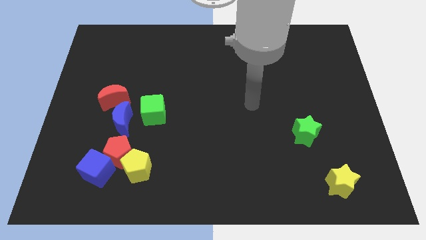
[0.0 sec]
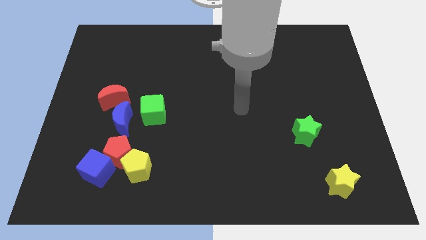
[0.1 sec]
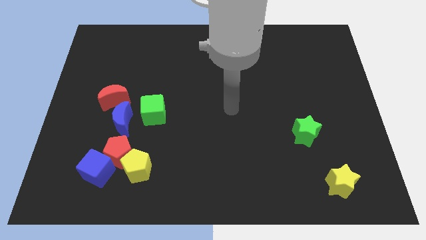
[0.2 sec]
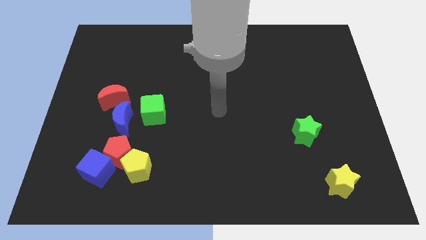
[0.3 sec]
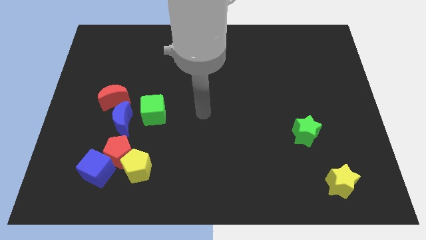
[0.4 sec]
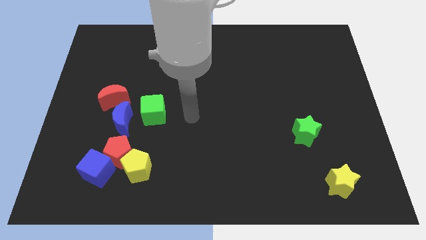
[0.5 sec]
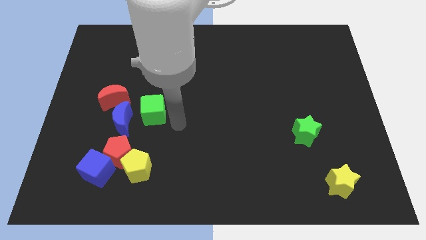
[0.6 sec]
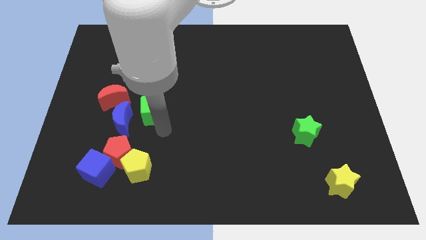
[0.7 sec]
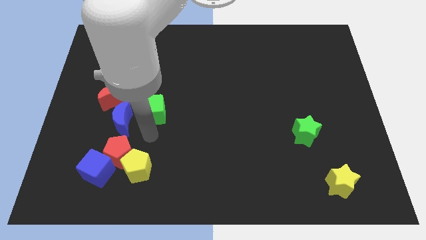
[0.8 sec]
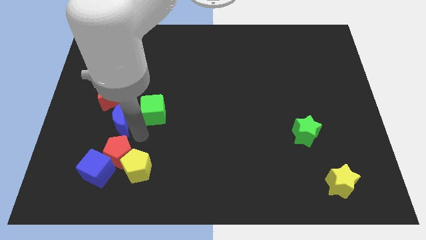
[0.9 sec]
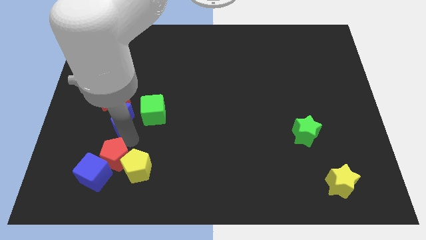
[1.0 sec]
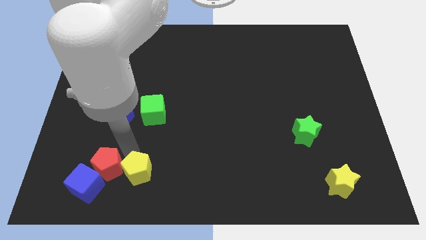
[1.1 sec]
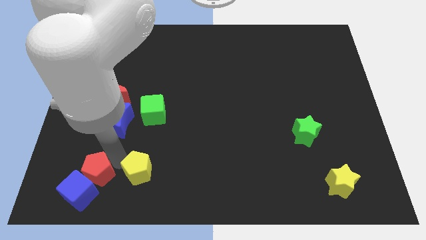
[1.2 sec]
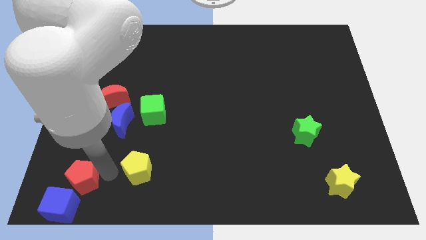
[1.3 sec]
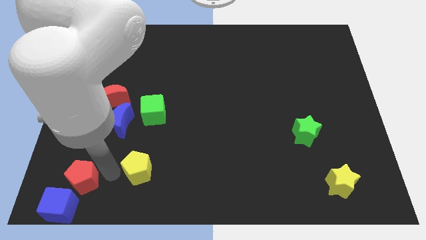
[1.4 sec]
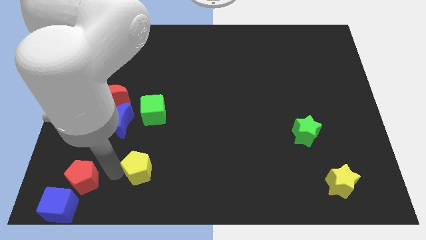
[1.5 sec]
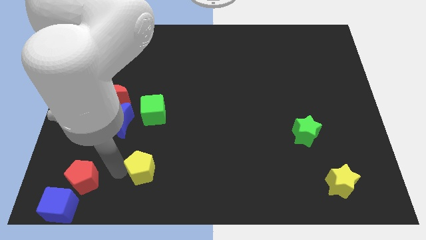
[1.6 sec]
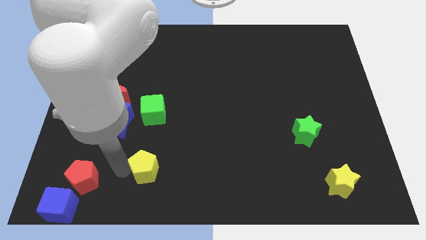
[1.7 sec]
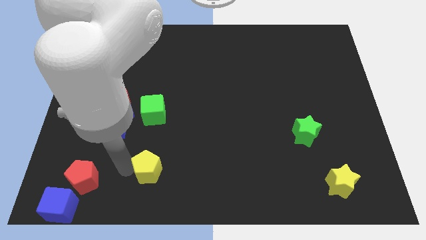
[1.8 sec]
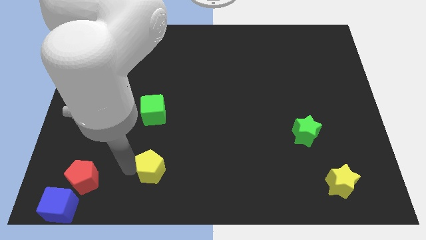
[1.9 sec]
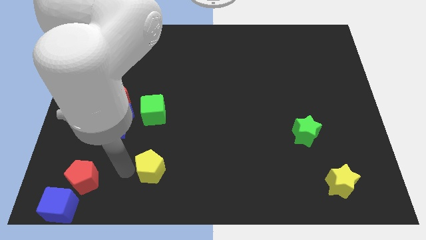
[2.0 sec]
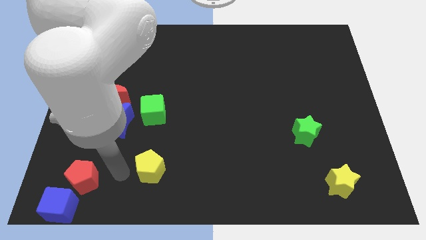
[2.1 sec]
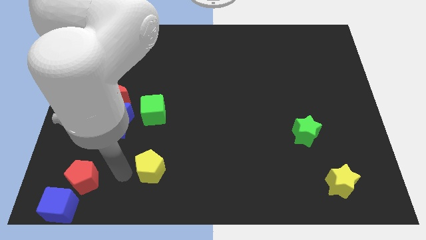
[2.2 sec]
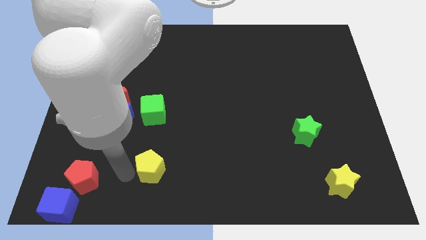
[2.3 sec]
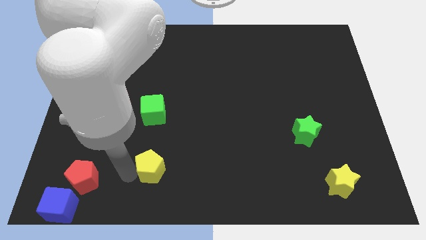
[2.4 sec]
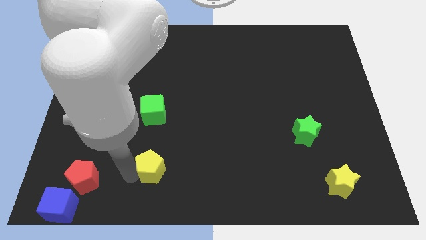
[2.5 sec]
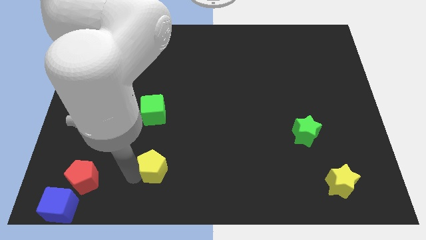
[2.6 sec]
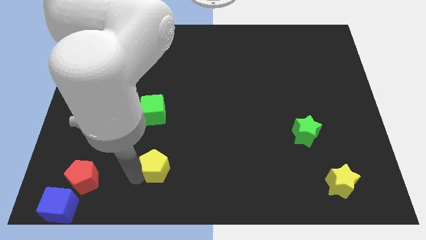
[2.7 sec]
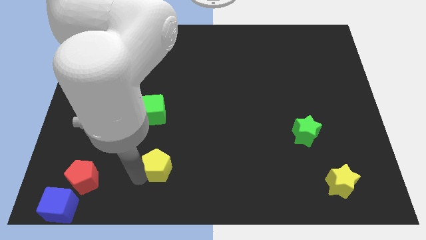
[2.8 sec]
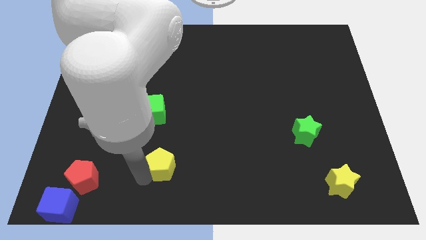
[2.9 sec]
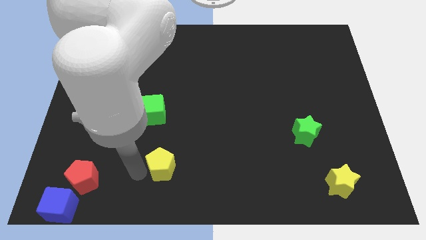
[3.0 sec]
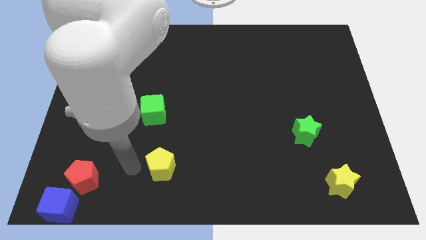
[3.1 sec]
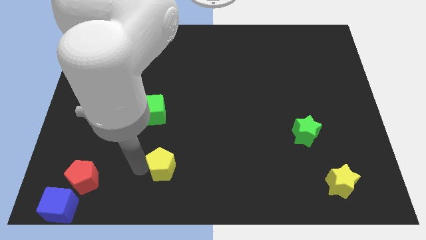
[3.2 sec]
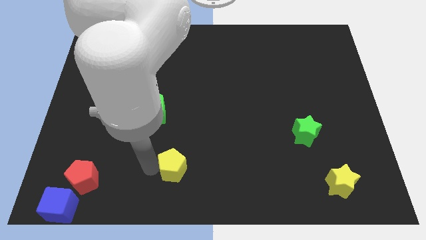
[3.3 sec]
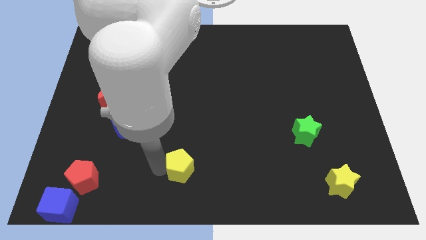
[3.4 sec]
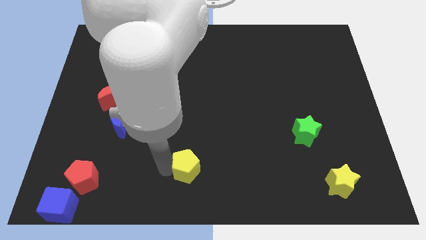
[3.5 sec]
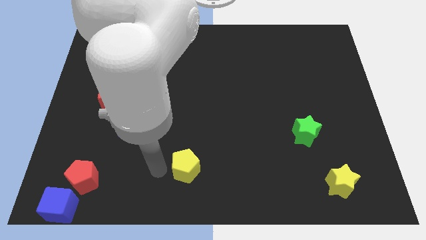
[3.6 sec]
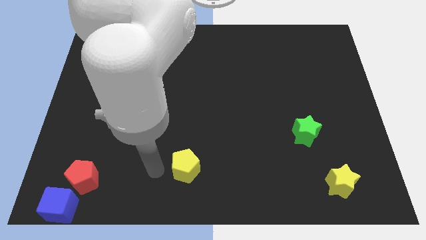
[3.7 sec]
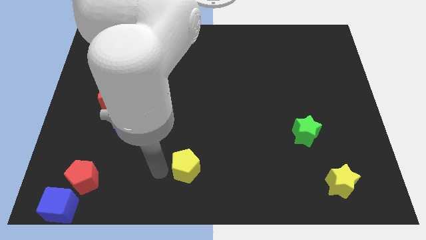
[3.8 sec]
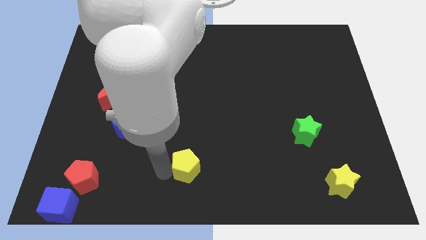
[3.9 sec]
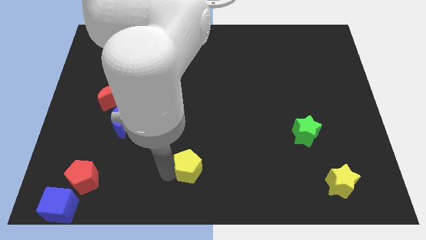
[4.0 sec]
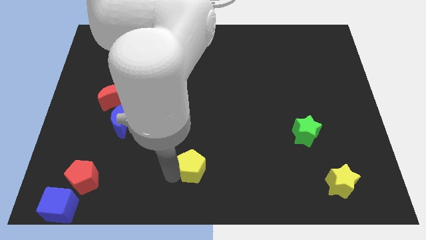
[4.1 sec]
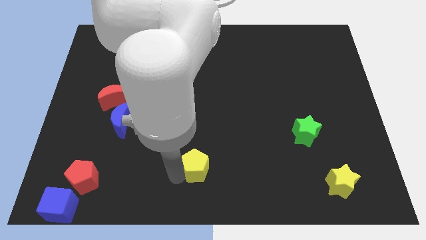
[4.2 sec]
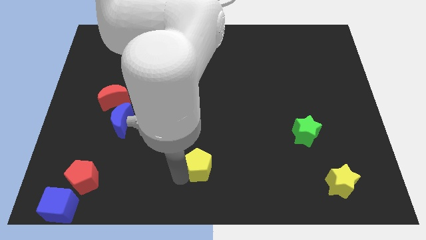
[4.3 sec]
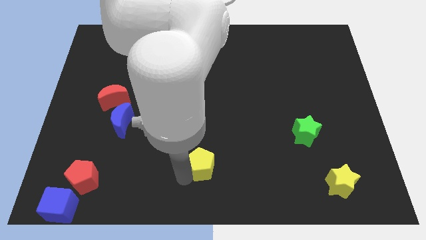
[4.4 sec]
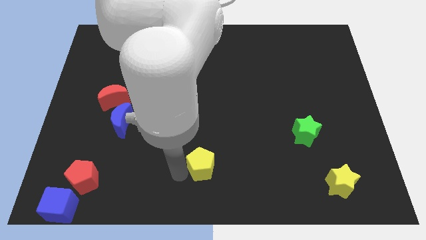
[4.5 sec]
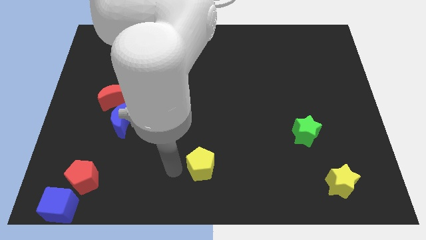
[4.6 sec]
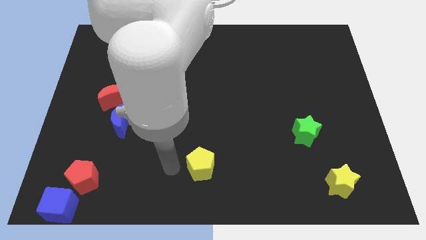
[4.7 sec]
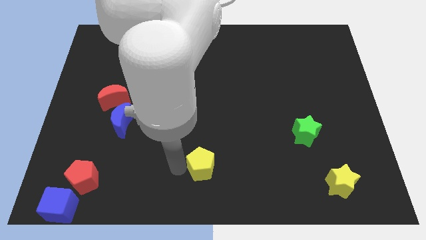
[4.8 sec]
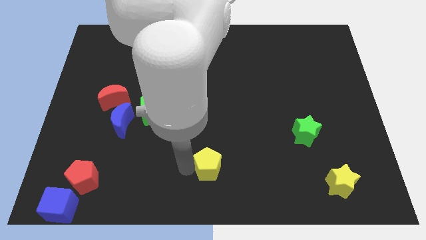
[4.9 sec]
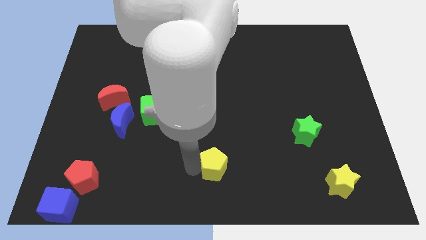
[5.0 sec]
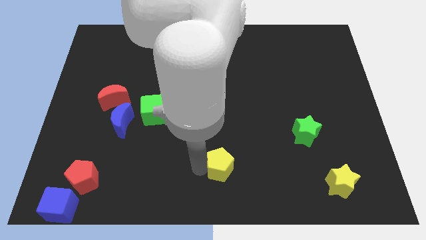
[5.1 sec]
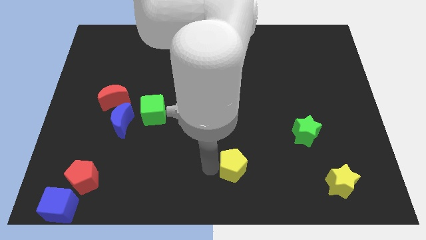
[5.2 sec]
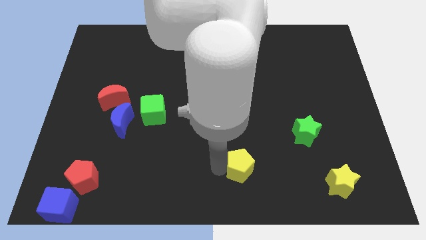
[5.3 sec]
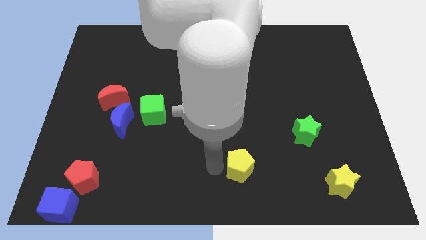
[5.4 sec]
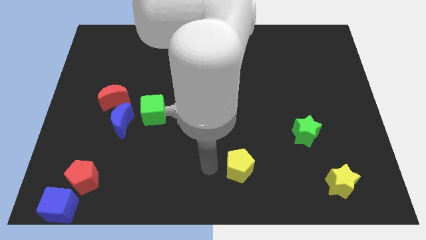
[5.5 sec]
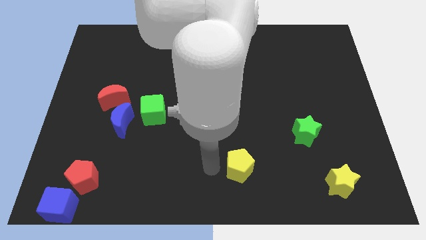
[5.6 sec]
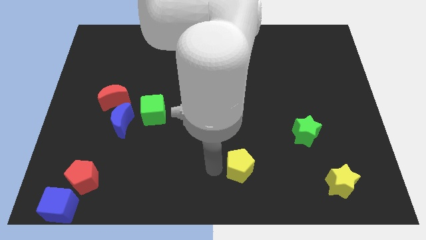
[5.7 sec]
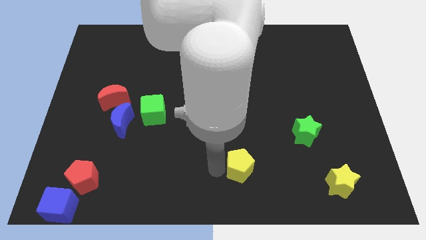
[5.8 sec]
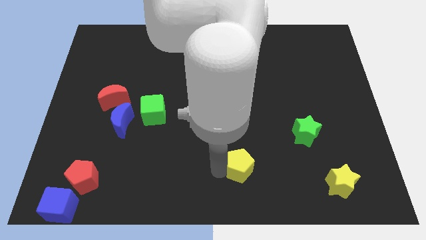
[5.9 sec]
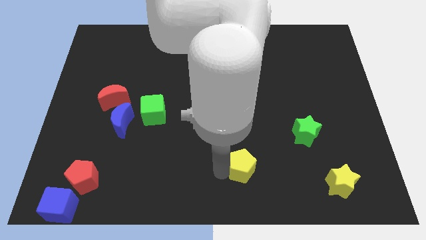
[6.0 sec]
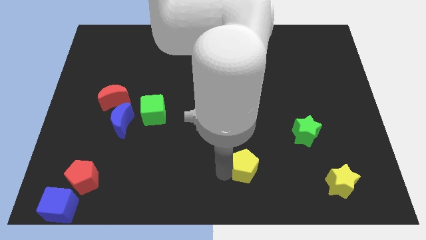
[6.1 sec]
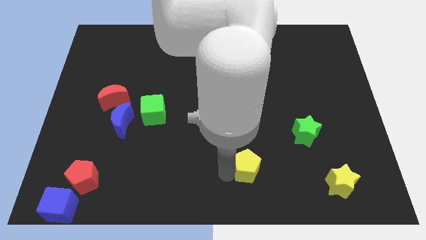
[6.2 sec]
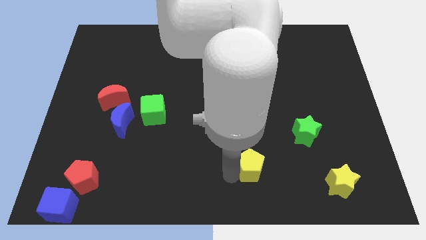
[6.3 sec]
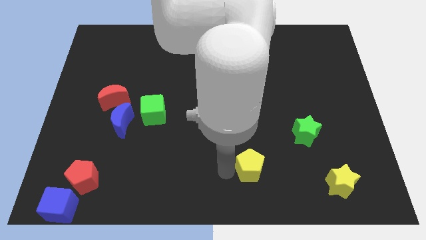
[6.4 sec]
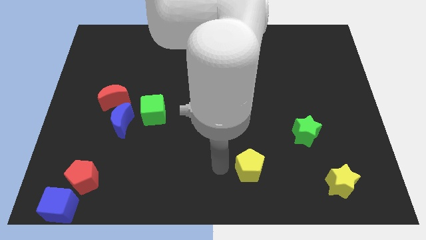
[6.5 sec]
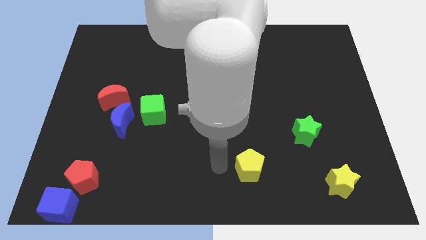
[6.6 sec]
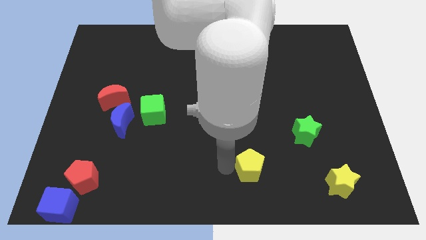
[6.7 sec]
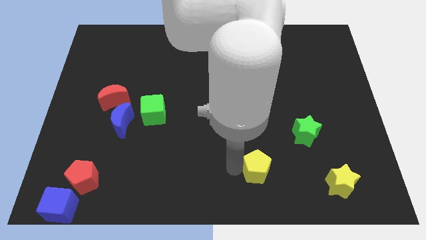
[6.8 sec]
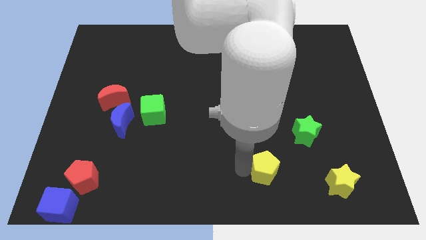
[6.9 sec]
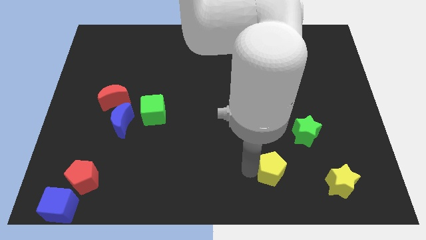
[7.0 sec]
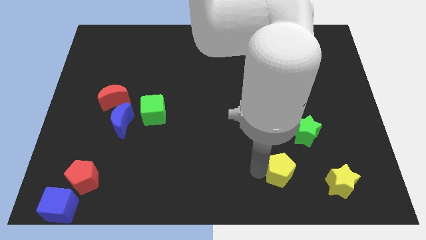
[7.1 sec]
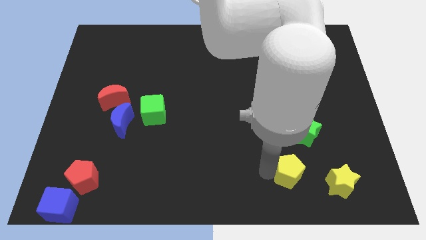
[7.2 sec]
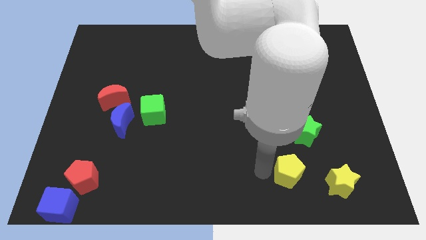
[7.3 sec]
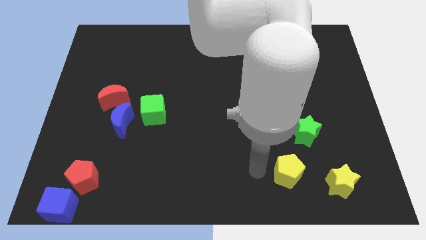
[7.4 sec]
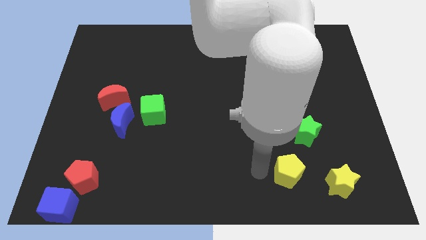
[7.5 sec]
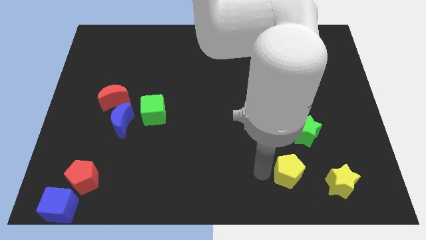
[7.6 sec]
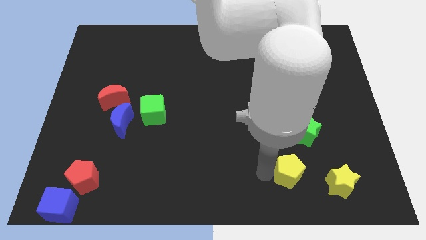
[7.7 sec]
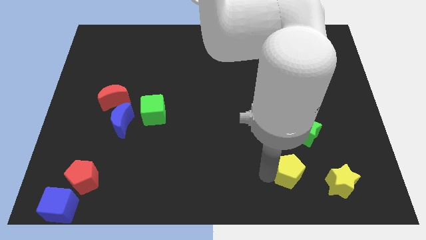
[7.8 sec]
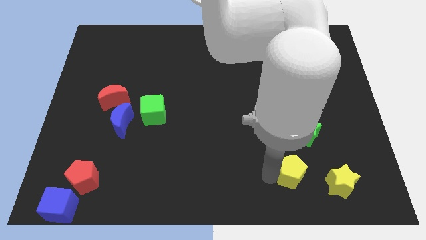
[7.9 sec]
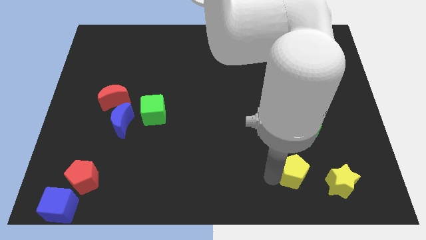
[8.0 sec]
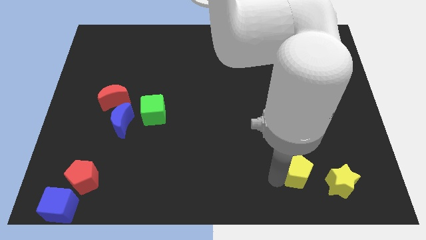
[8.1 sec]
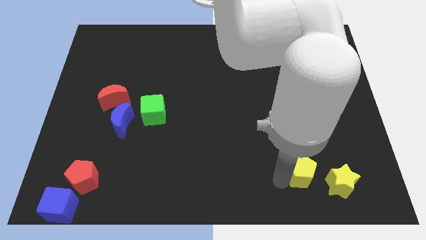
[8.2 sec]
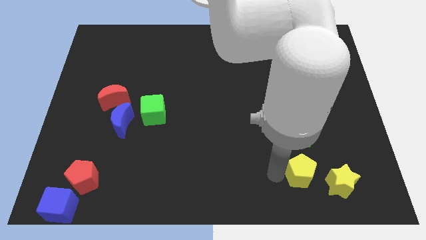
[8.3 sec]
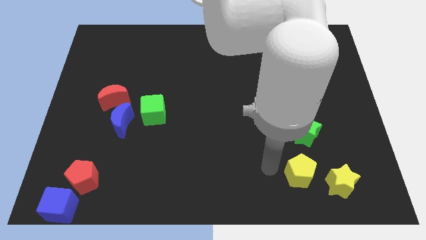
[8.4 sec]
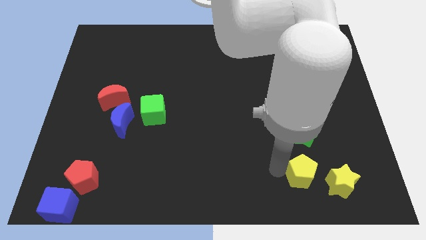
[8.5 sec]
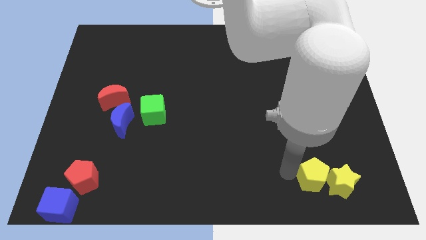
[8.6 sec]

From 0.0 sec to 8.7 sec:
slide the yellow pentagon next to the yellow star
